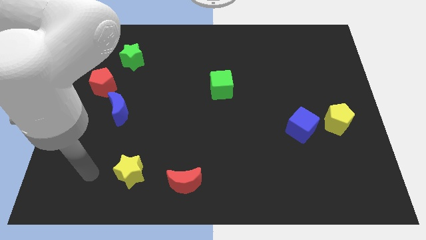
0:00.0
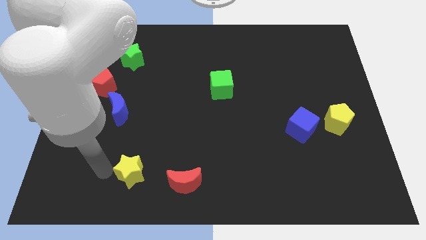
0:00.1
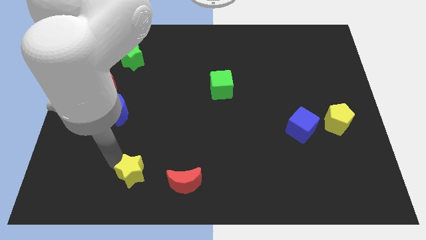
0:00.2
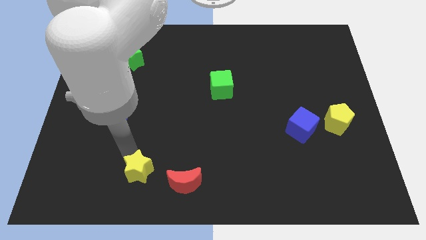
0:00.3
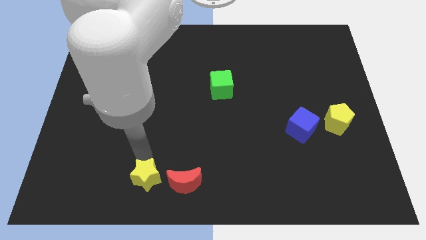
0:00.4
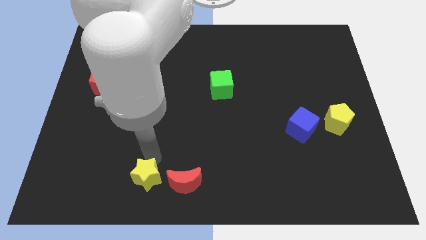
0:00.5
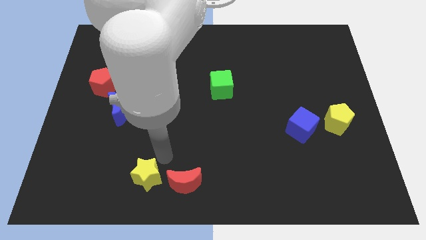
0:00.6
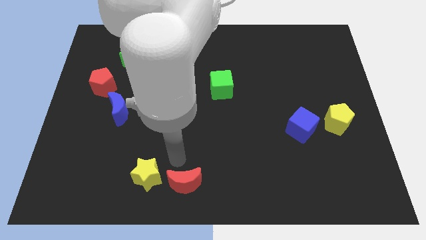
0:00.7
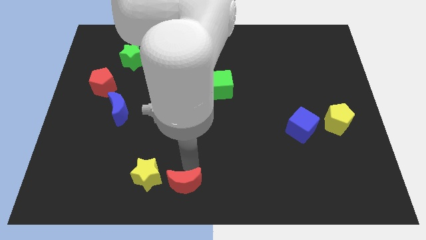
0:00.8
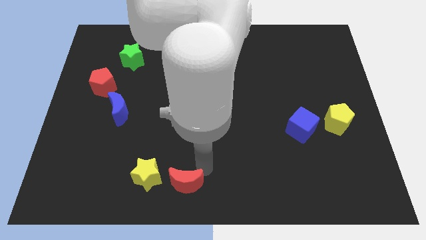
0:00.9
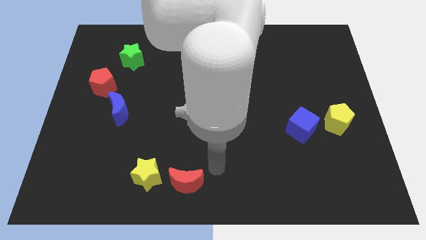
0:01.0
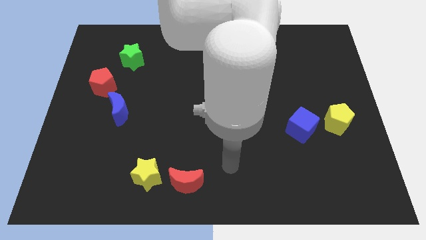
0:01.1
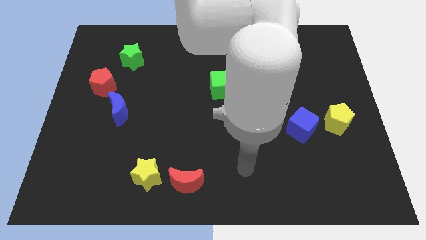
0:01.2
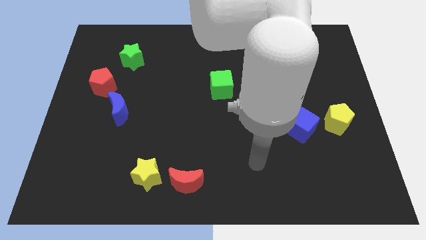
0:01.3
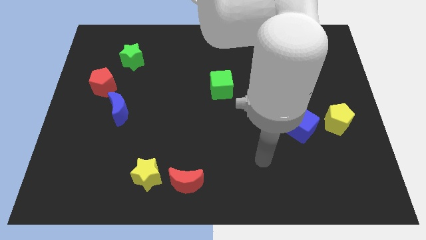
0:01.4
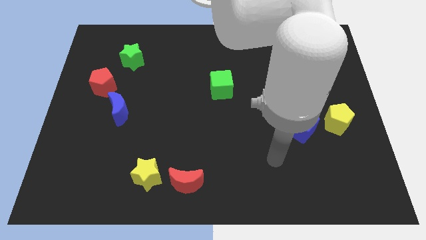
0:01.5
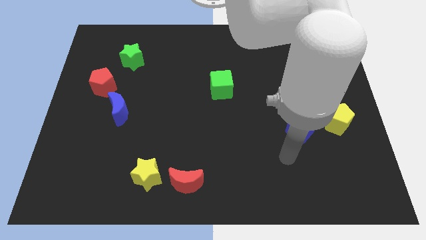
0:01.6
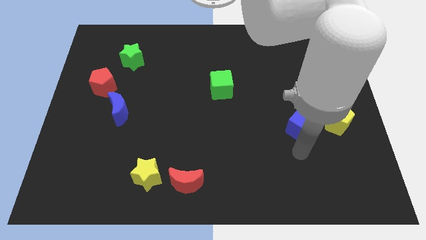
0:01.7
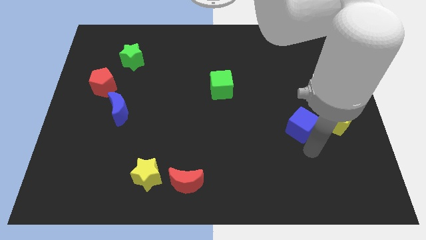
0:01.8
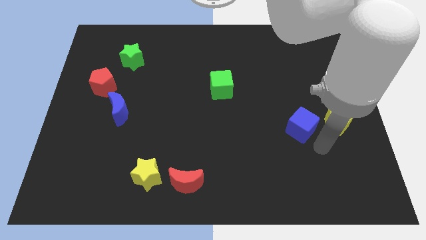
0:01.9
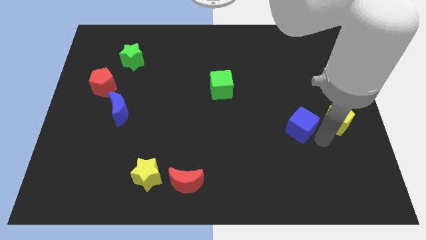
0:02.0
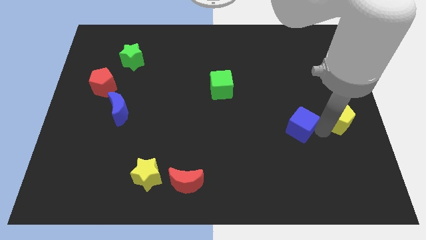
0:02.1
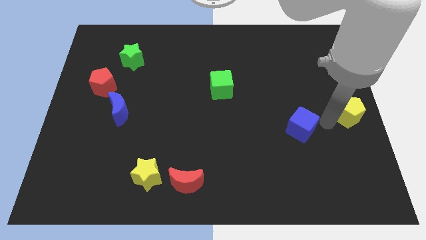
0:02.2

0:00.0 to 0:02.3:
move the blue cube away from the yellow pentagon

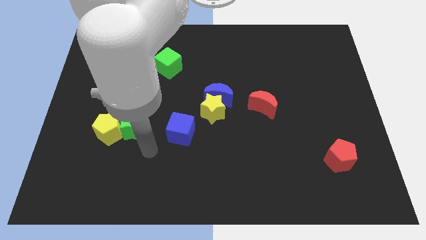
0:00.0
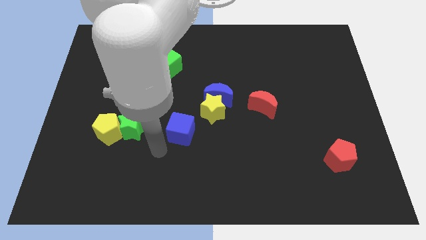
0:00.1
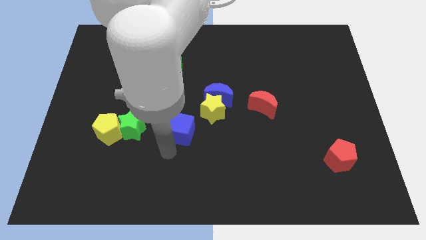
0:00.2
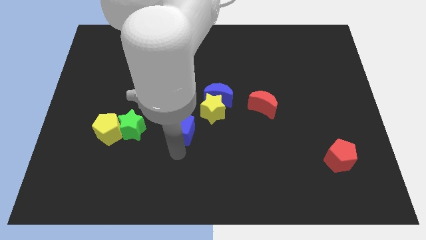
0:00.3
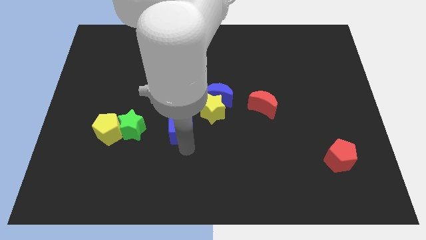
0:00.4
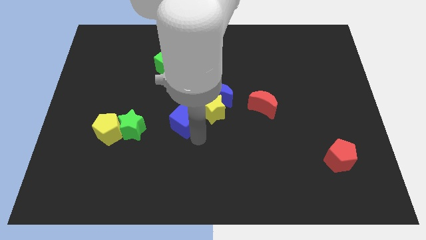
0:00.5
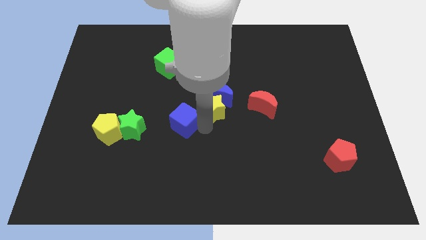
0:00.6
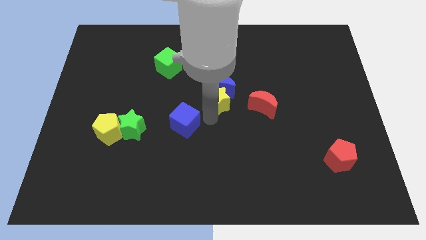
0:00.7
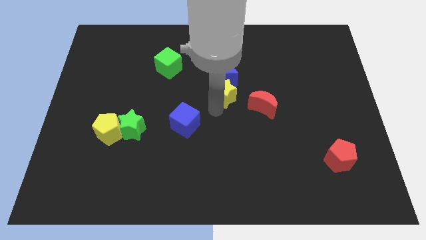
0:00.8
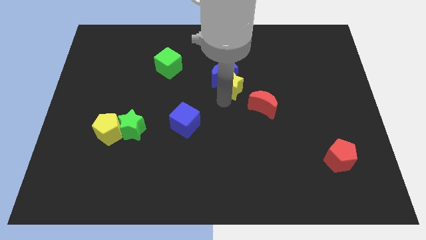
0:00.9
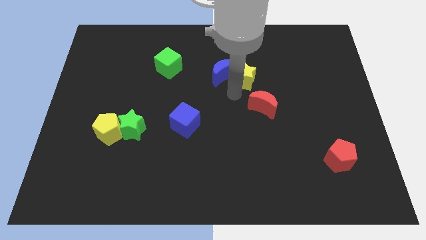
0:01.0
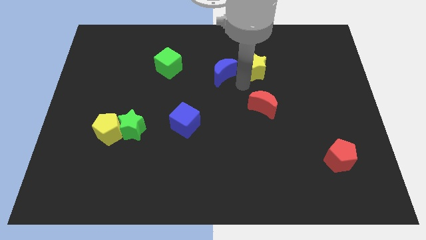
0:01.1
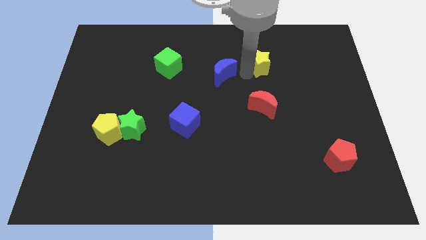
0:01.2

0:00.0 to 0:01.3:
pull the blue moon apart from the yellow star

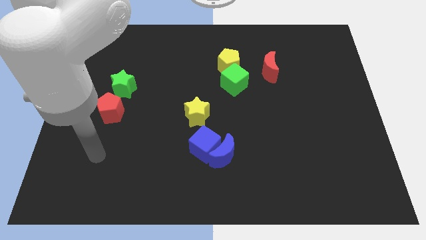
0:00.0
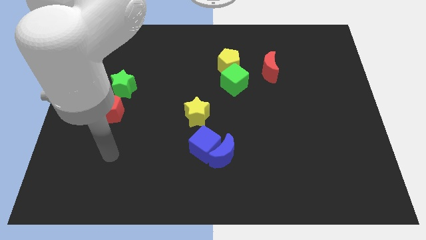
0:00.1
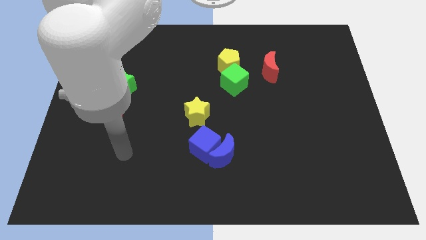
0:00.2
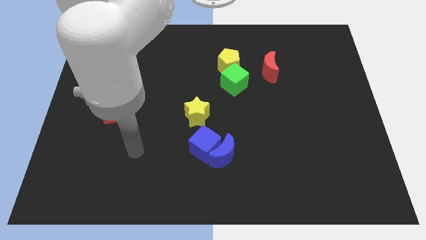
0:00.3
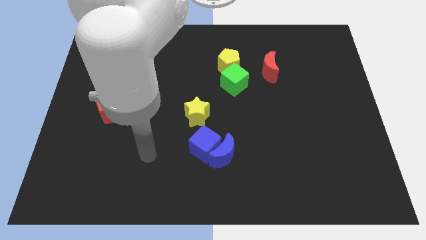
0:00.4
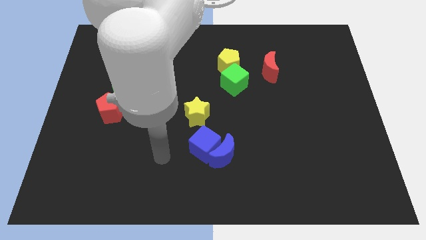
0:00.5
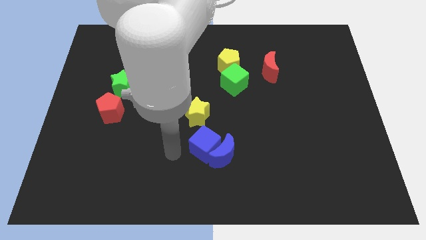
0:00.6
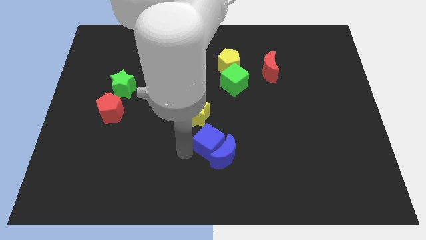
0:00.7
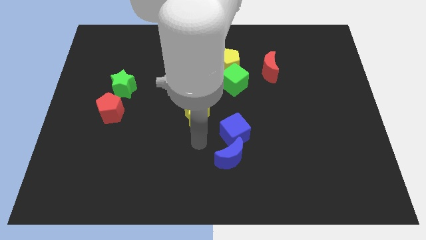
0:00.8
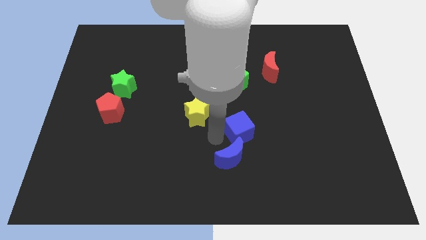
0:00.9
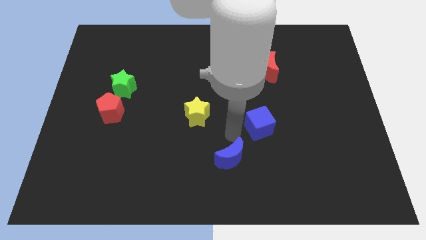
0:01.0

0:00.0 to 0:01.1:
separate the blue moon from the blue cube

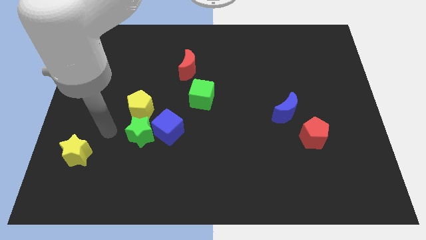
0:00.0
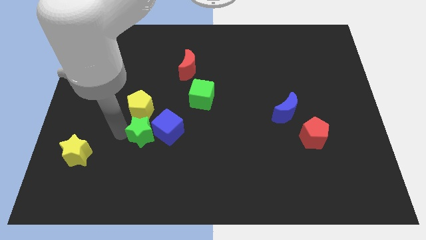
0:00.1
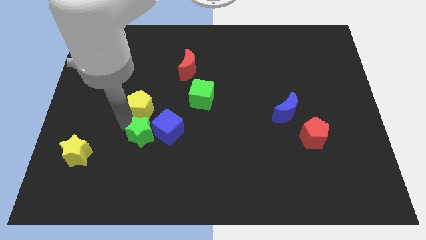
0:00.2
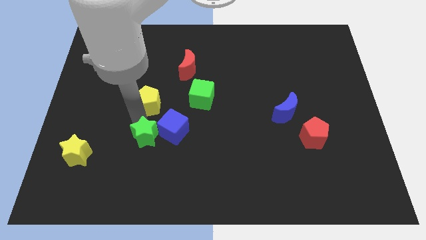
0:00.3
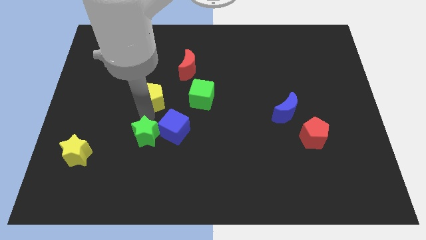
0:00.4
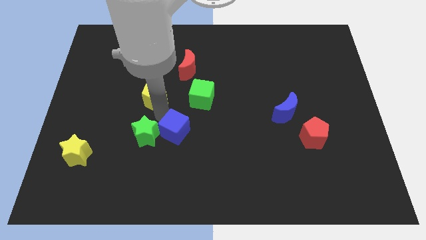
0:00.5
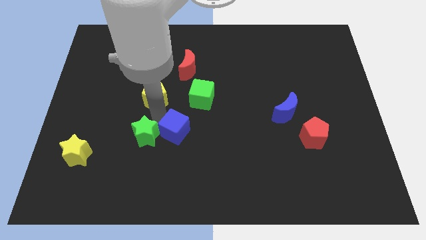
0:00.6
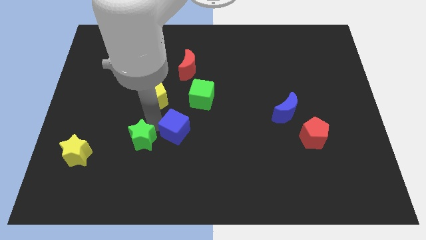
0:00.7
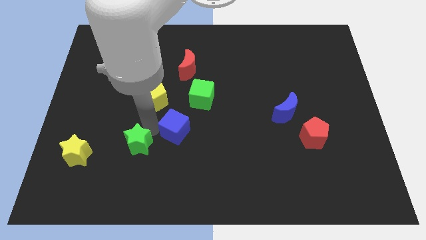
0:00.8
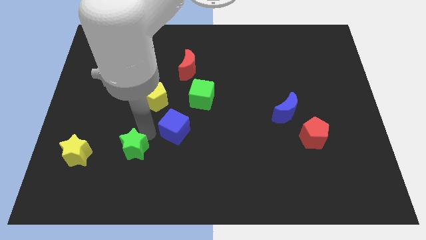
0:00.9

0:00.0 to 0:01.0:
pull the green star apart from the blue cube and yellow pentagon

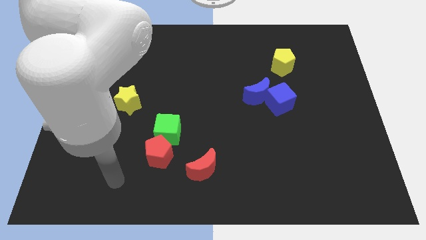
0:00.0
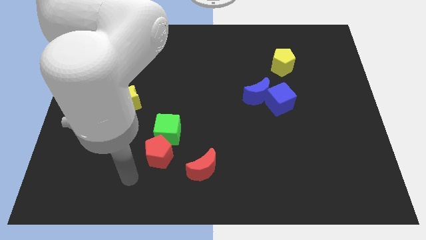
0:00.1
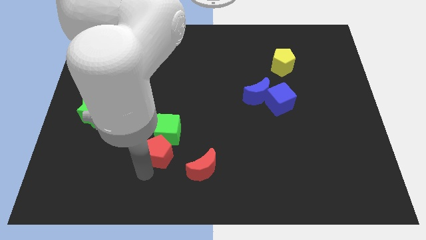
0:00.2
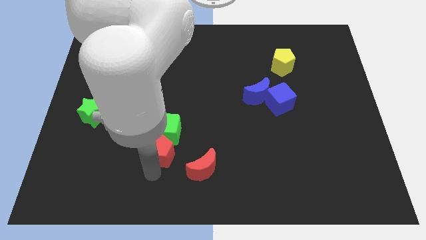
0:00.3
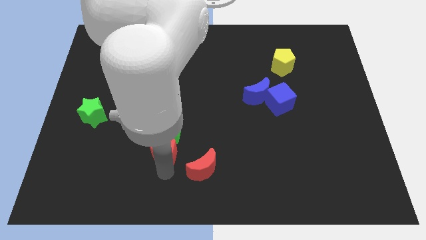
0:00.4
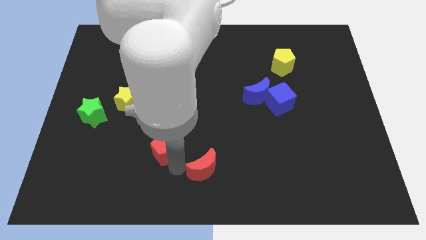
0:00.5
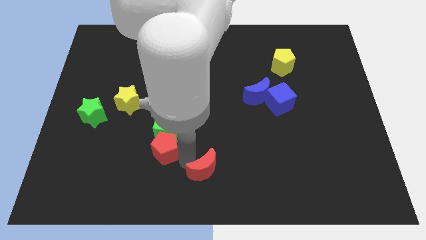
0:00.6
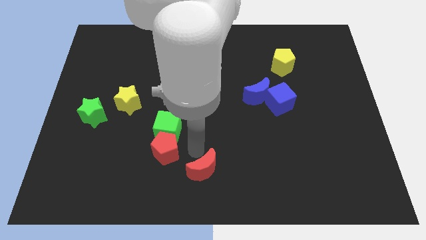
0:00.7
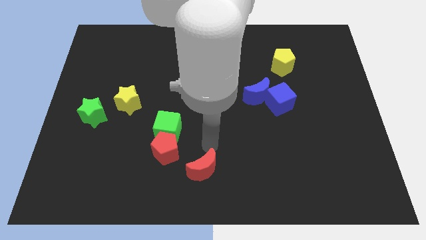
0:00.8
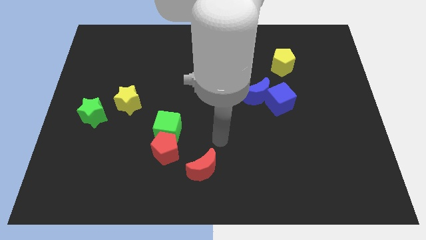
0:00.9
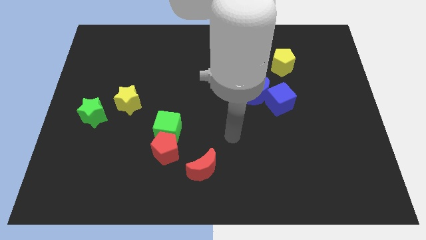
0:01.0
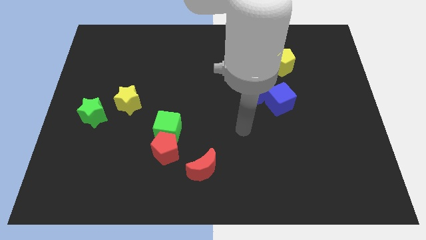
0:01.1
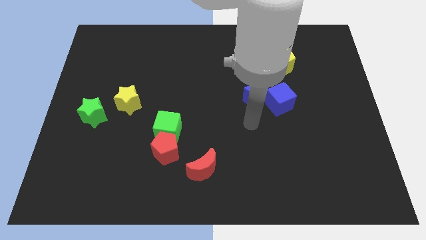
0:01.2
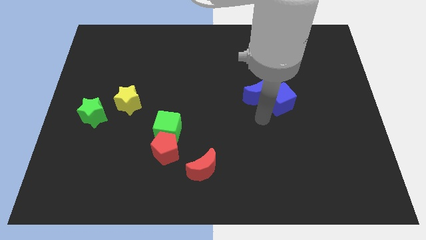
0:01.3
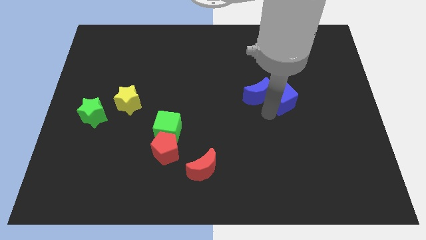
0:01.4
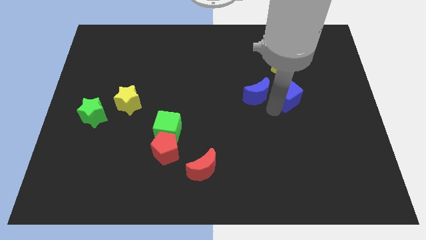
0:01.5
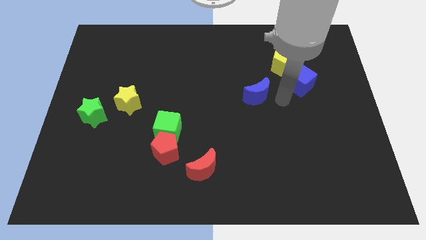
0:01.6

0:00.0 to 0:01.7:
pull the blue moon apart from the blue cube

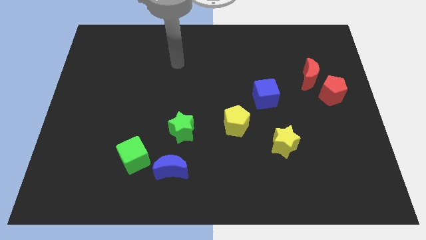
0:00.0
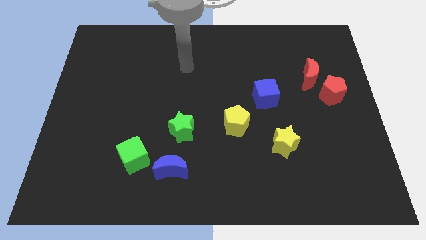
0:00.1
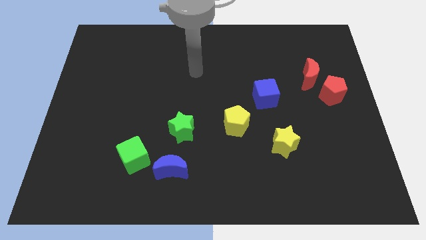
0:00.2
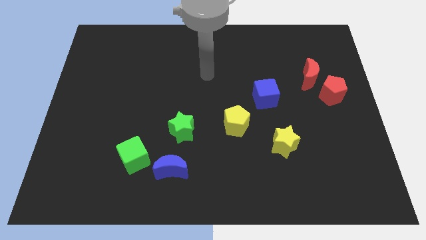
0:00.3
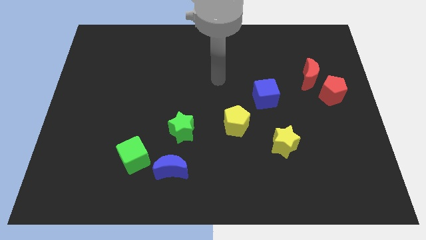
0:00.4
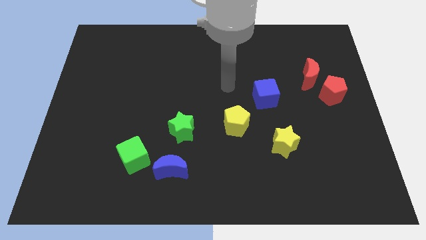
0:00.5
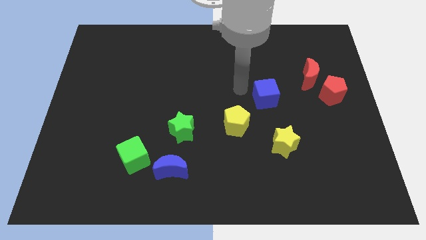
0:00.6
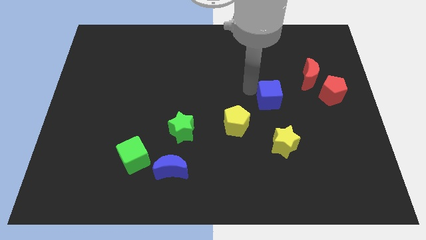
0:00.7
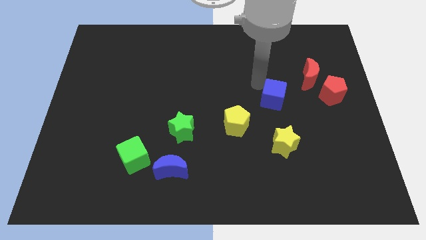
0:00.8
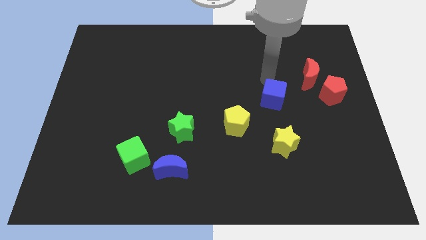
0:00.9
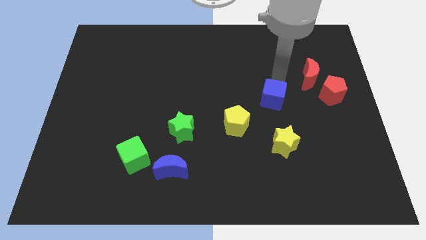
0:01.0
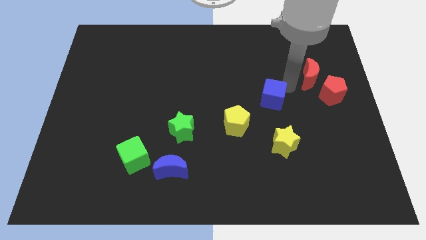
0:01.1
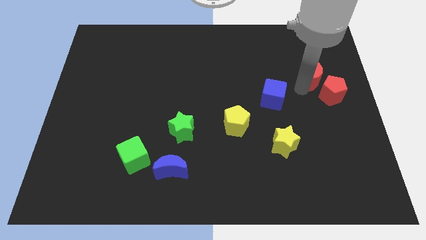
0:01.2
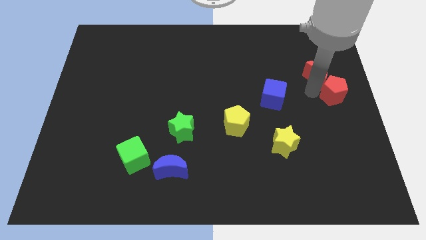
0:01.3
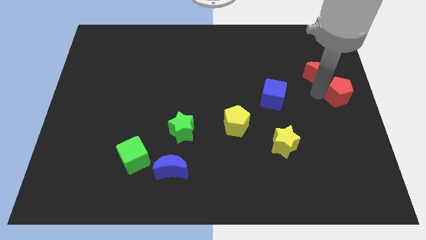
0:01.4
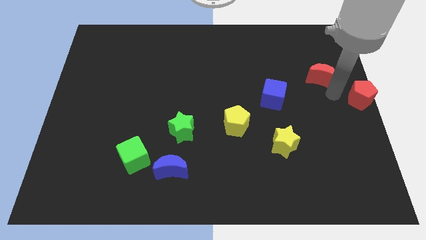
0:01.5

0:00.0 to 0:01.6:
separate the red moon from the red pentagon

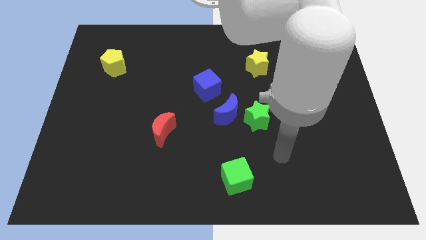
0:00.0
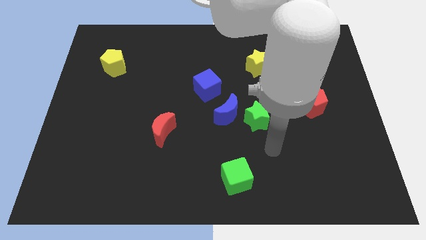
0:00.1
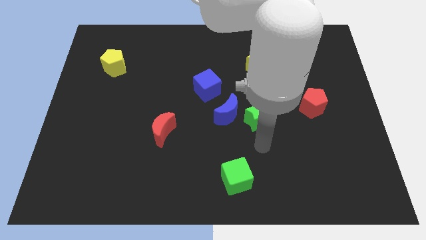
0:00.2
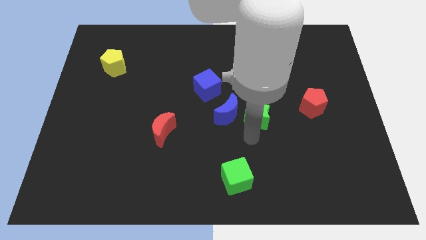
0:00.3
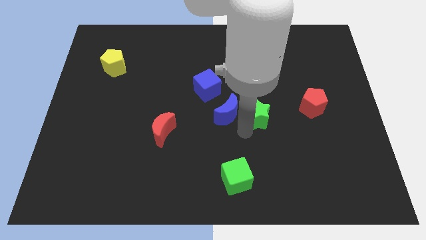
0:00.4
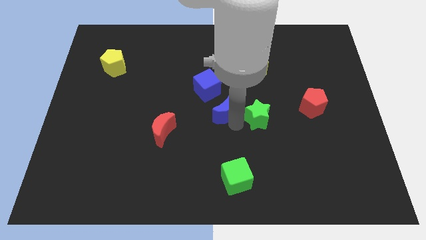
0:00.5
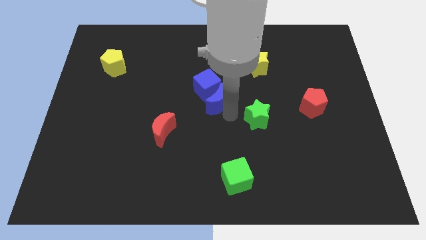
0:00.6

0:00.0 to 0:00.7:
move the green star away from the blue moon
